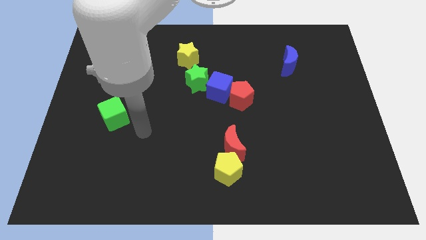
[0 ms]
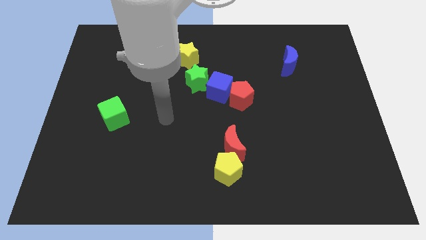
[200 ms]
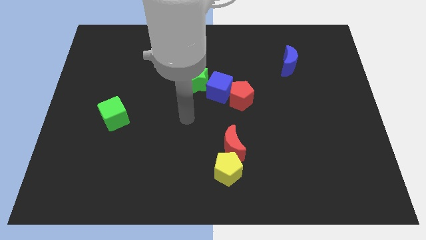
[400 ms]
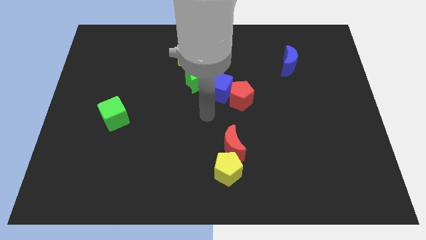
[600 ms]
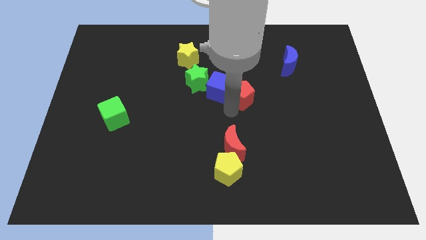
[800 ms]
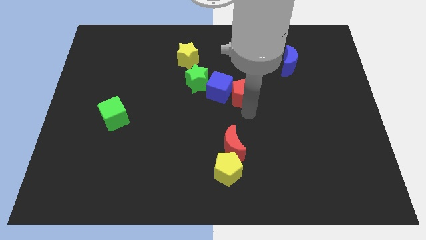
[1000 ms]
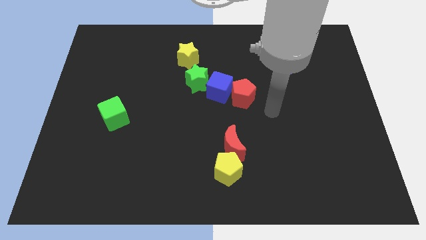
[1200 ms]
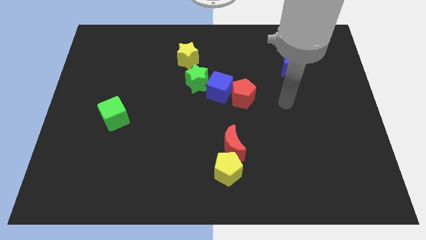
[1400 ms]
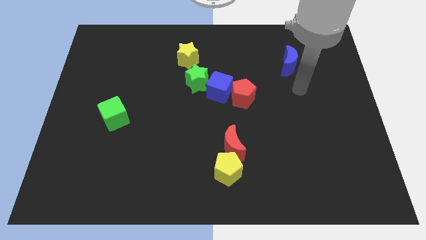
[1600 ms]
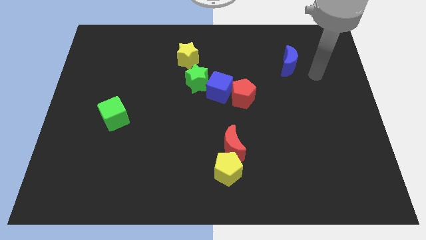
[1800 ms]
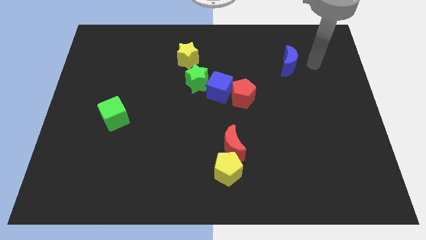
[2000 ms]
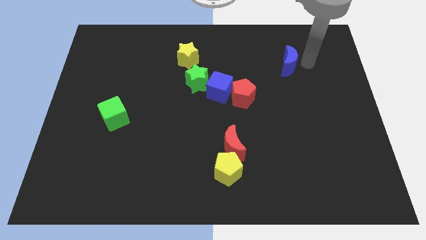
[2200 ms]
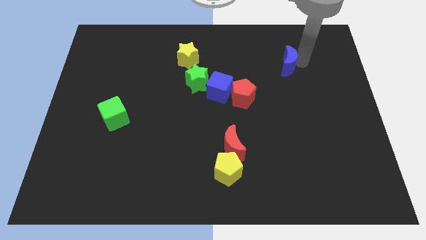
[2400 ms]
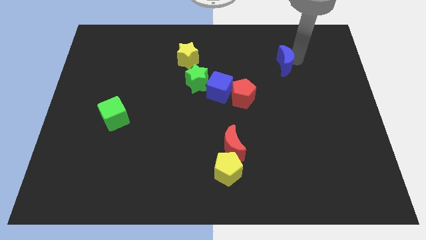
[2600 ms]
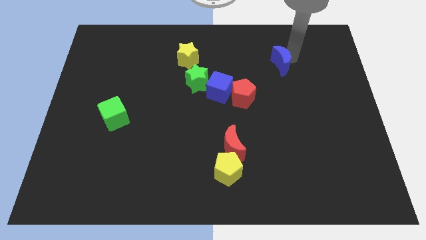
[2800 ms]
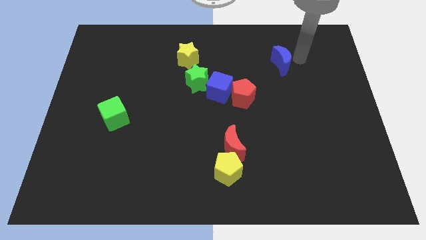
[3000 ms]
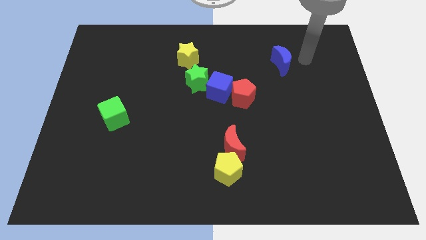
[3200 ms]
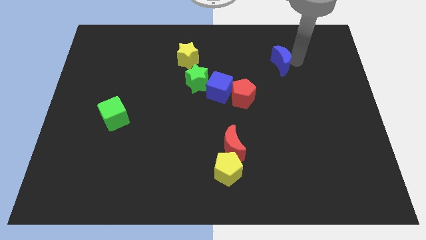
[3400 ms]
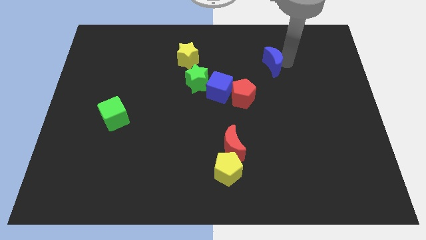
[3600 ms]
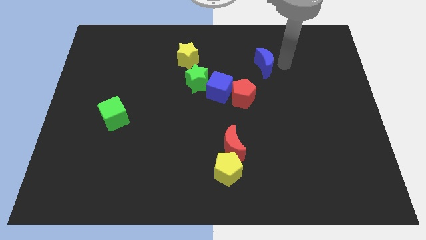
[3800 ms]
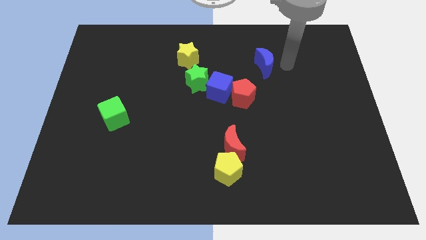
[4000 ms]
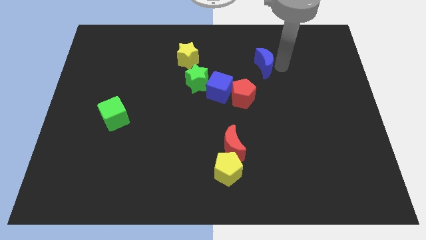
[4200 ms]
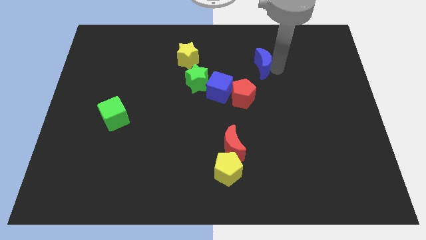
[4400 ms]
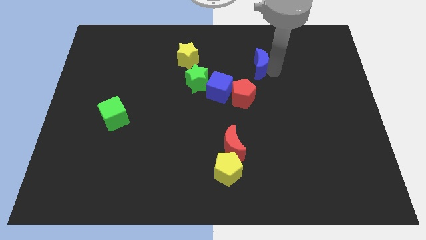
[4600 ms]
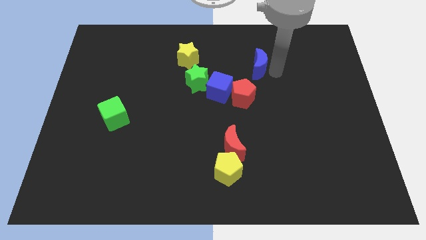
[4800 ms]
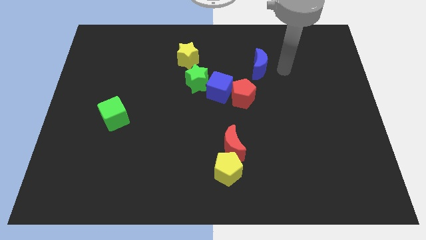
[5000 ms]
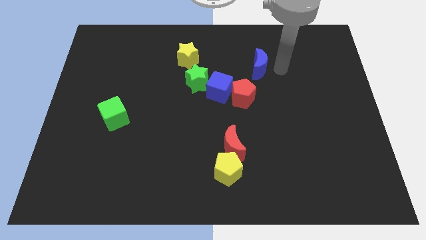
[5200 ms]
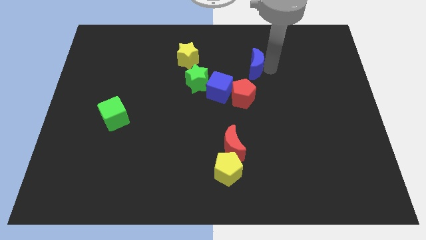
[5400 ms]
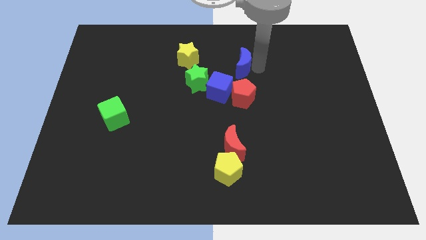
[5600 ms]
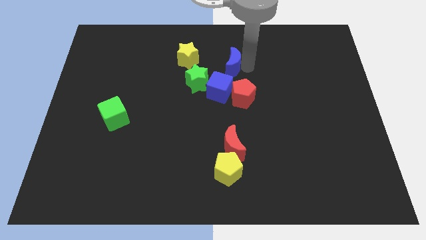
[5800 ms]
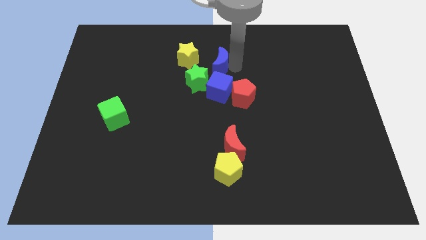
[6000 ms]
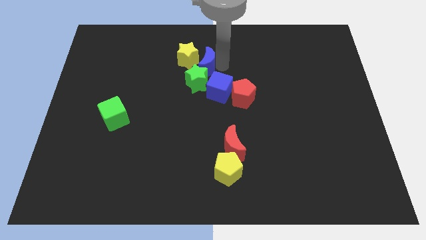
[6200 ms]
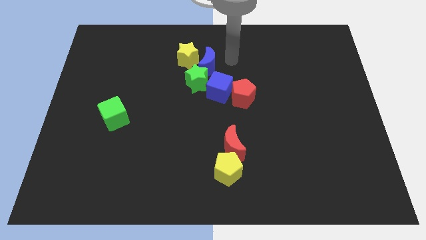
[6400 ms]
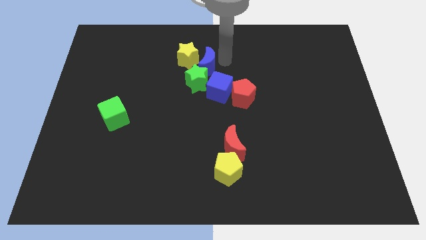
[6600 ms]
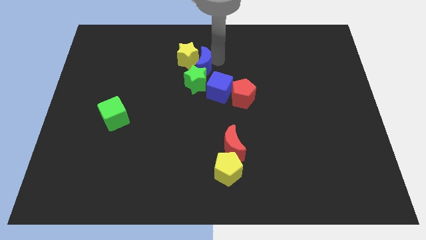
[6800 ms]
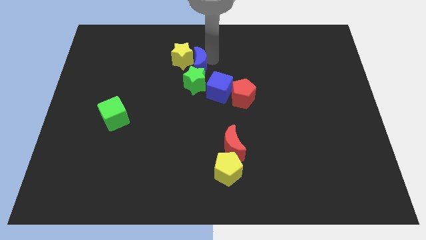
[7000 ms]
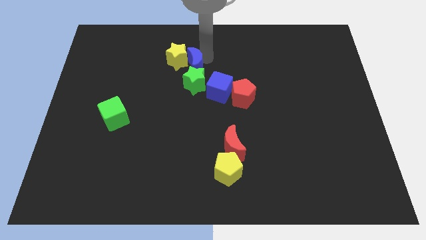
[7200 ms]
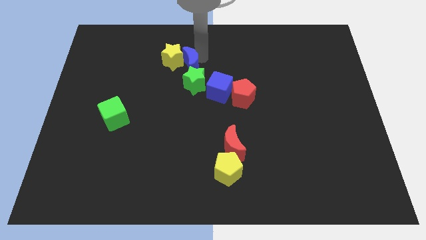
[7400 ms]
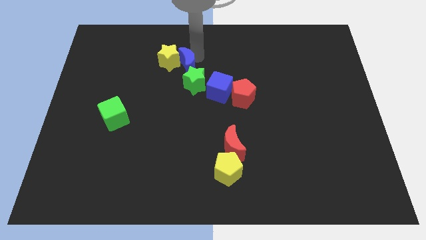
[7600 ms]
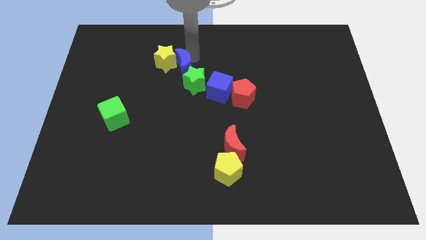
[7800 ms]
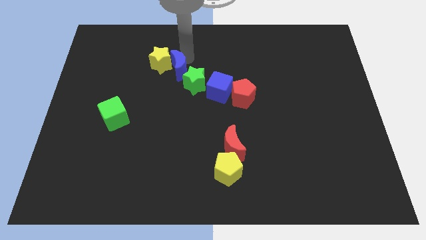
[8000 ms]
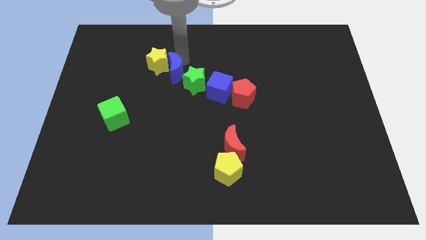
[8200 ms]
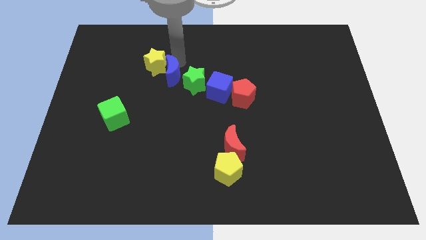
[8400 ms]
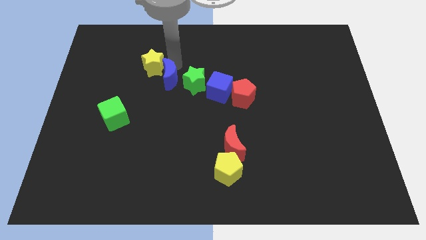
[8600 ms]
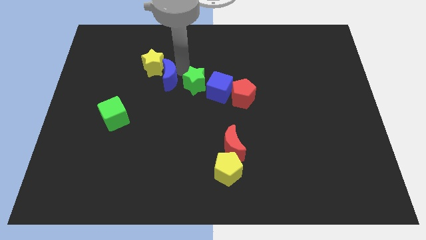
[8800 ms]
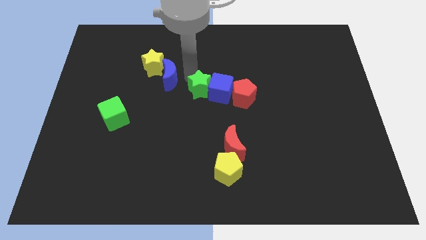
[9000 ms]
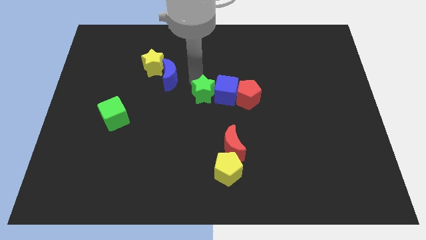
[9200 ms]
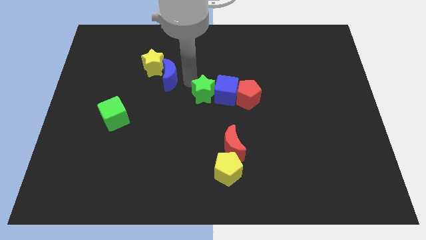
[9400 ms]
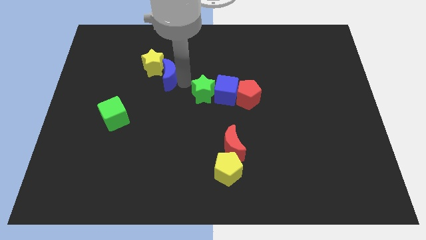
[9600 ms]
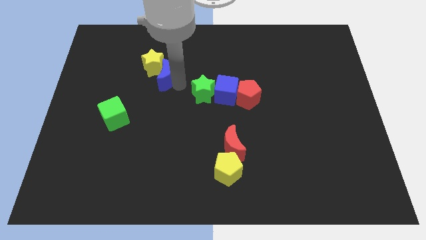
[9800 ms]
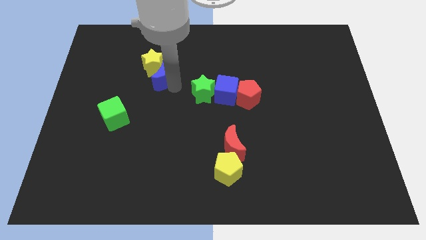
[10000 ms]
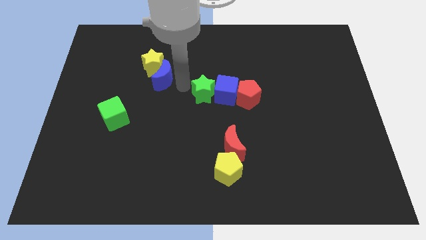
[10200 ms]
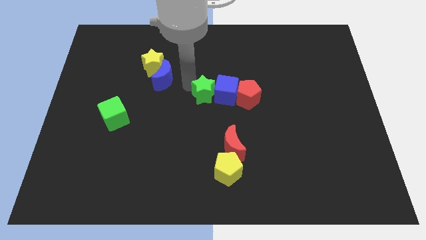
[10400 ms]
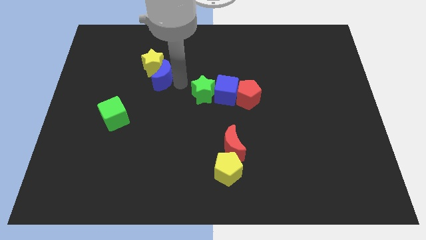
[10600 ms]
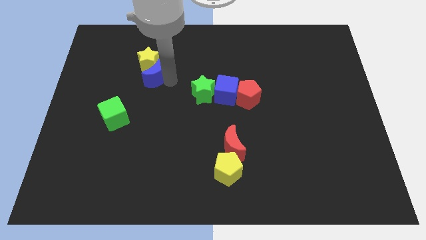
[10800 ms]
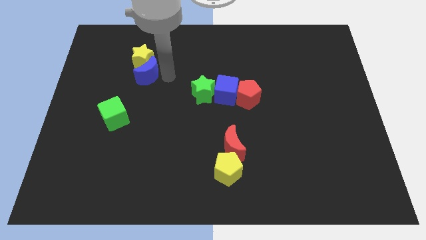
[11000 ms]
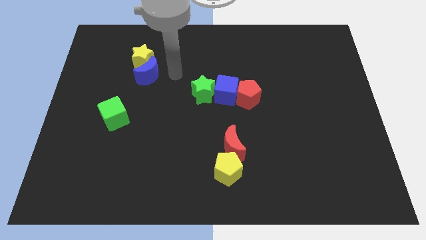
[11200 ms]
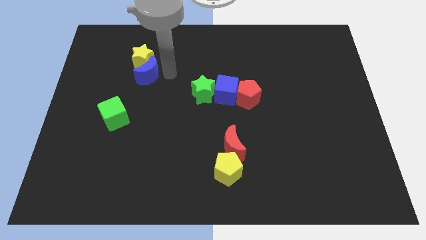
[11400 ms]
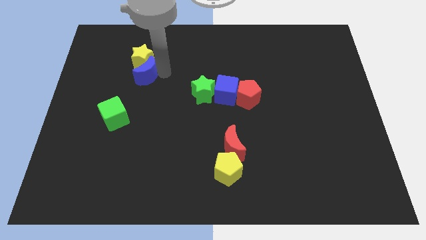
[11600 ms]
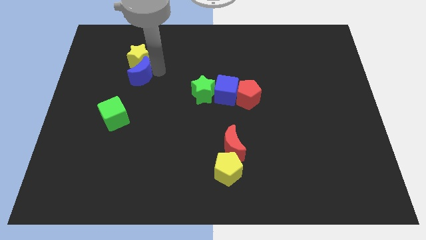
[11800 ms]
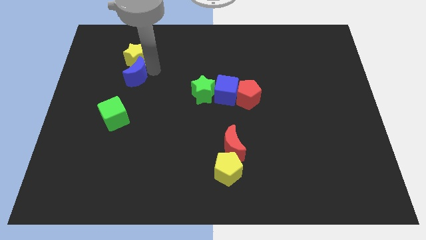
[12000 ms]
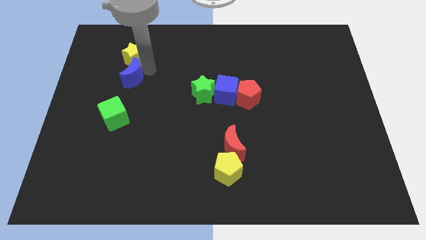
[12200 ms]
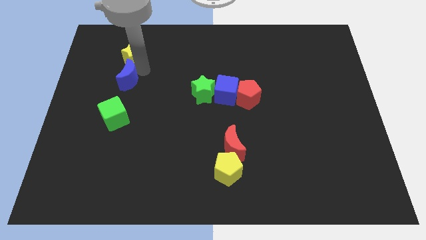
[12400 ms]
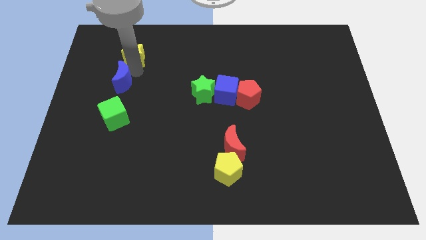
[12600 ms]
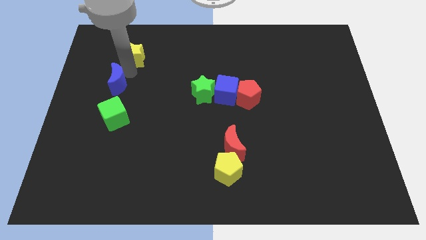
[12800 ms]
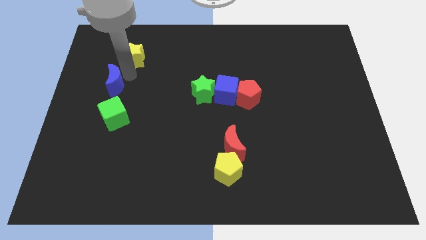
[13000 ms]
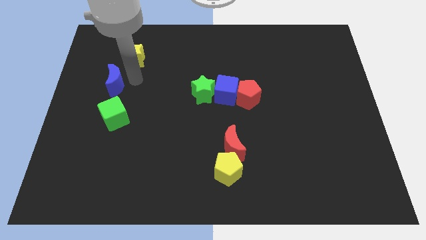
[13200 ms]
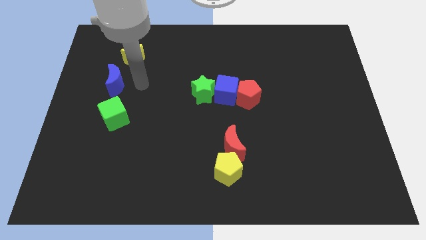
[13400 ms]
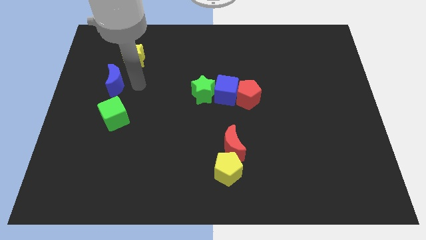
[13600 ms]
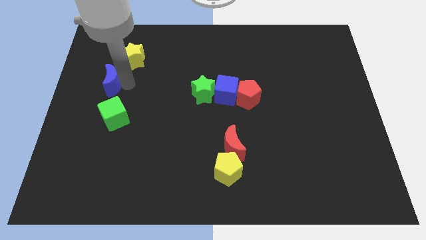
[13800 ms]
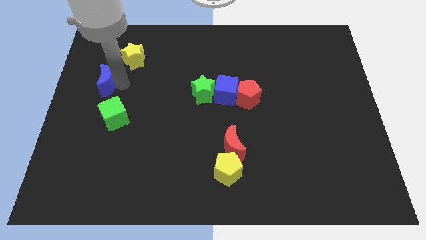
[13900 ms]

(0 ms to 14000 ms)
push the blue moon to the center left
